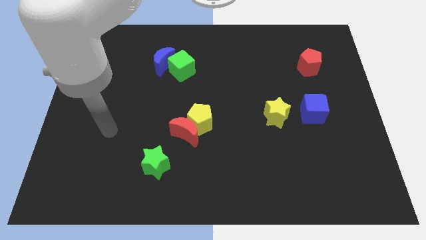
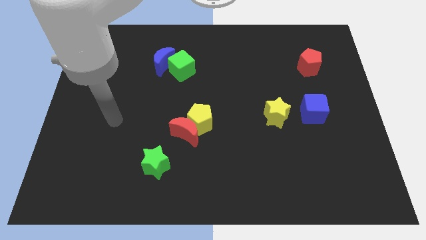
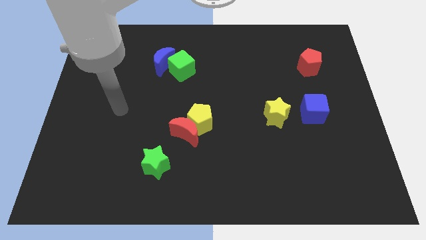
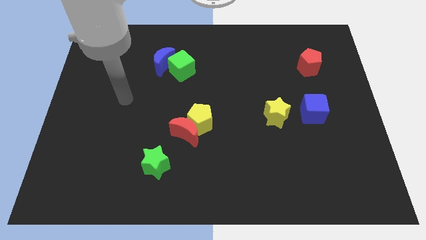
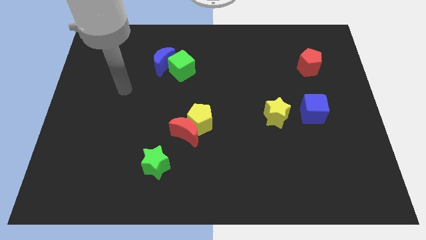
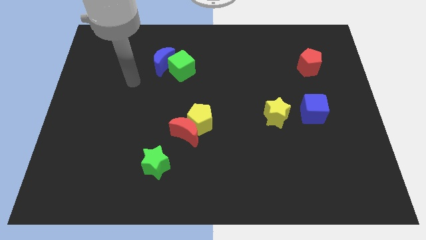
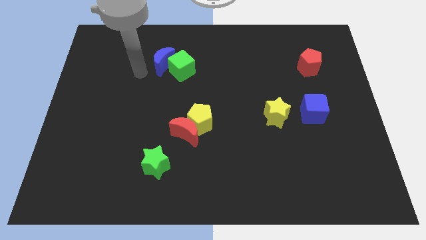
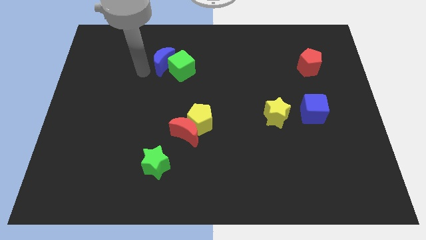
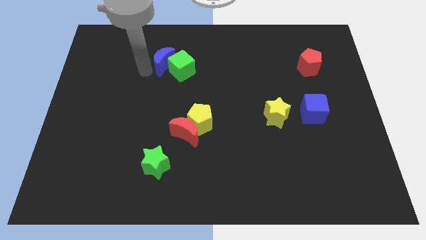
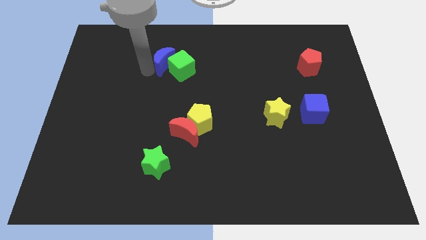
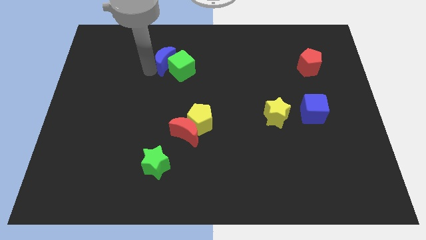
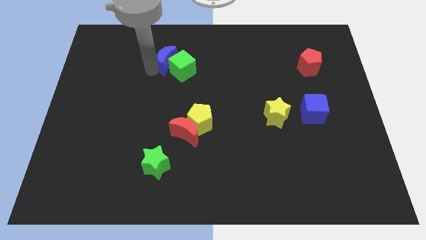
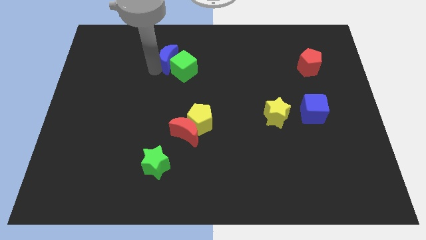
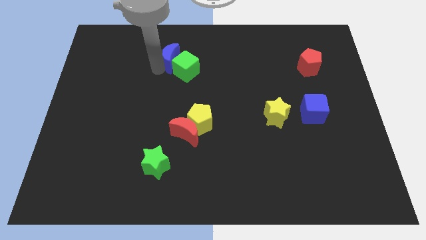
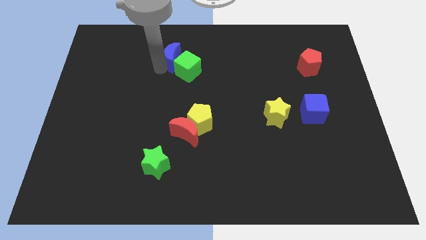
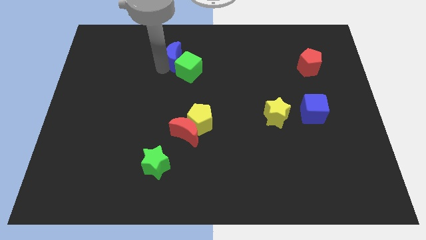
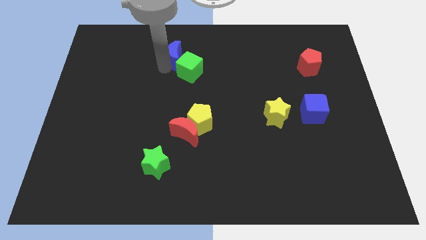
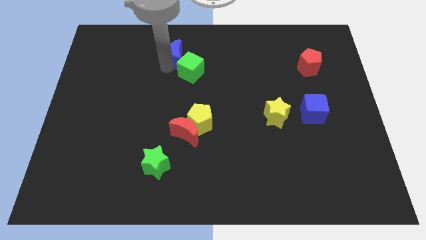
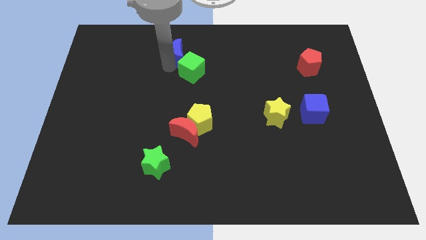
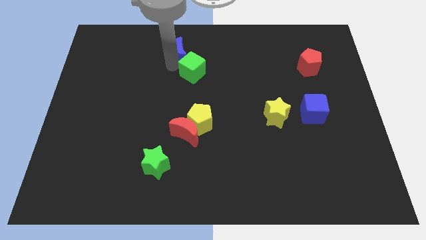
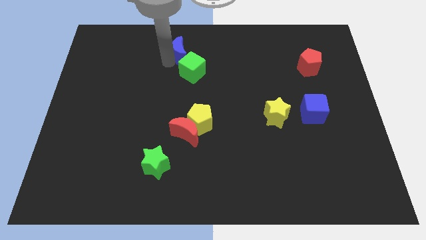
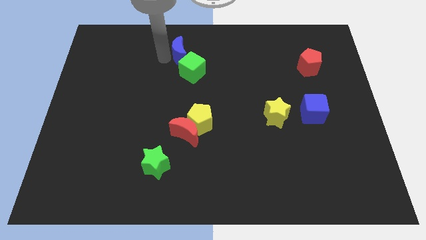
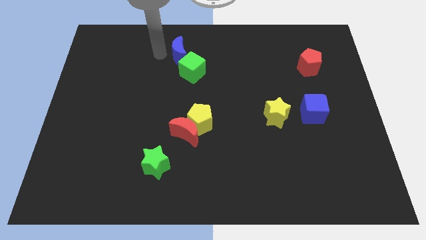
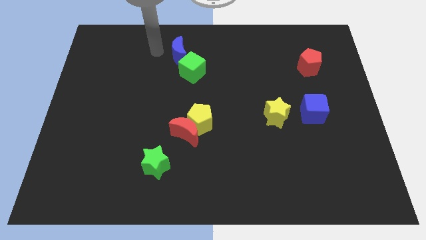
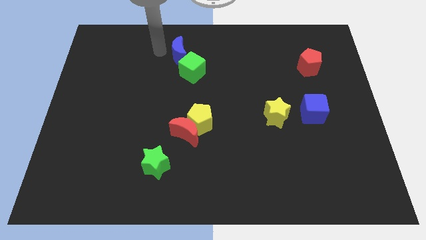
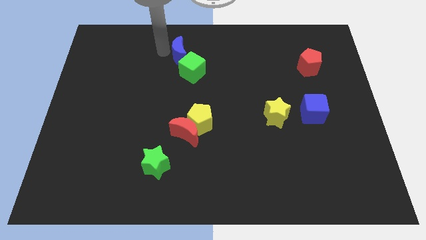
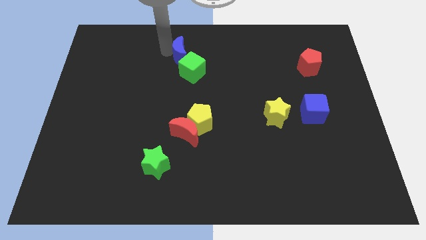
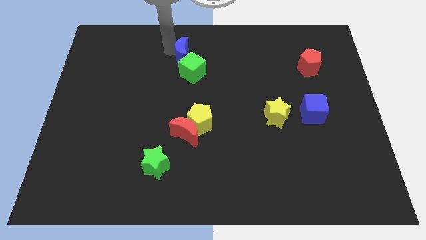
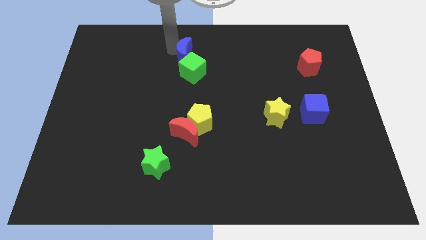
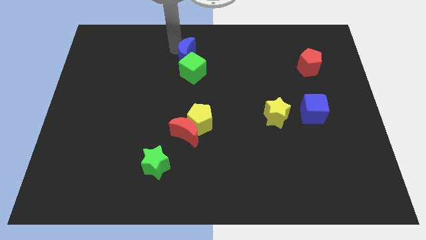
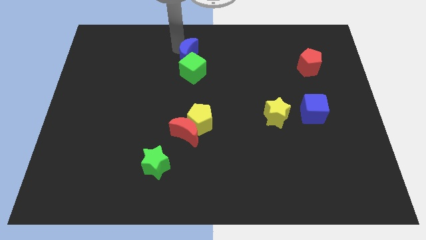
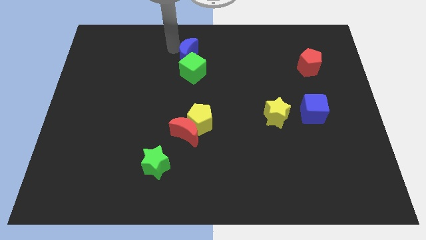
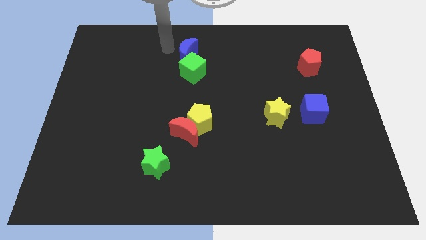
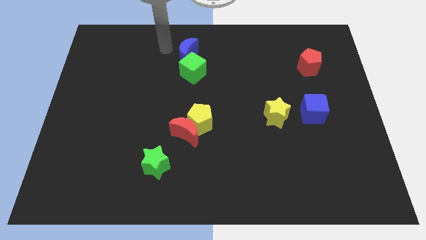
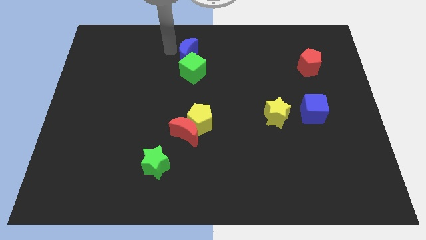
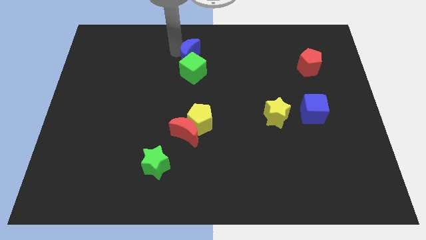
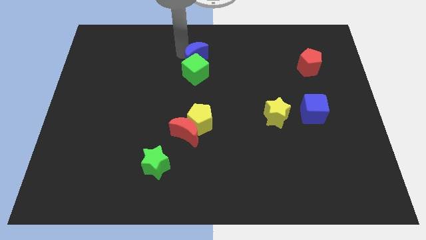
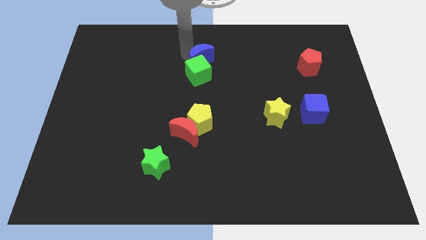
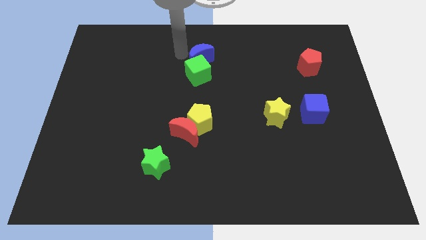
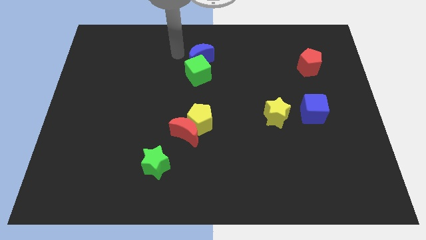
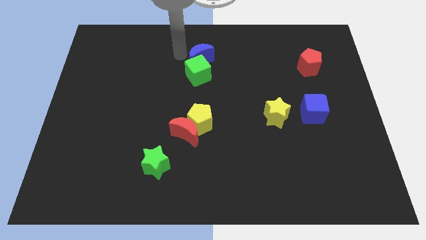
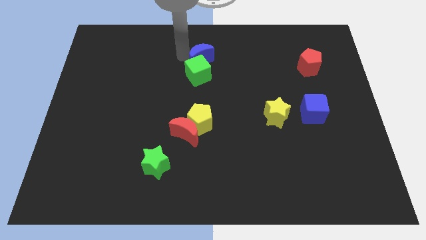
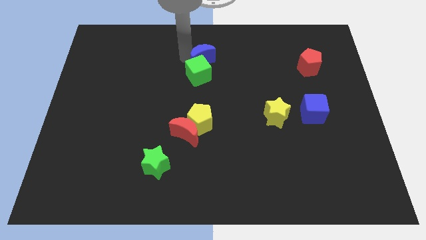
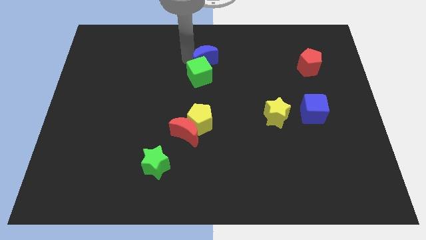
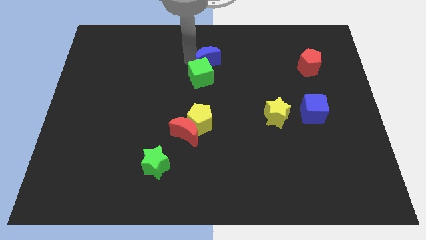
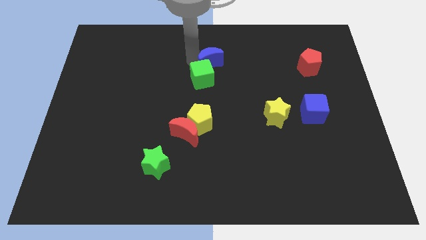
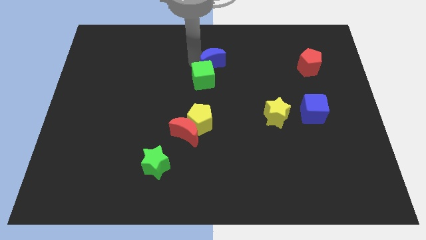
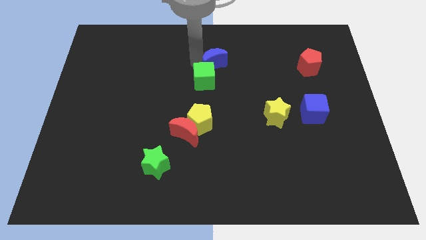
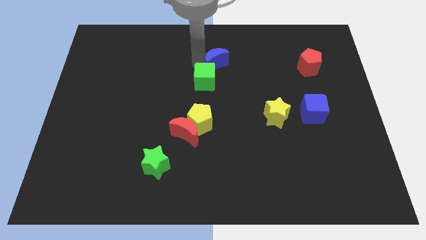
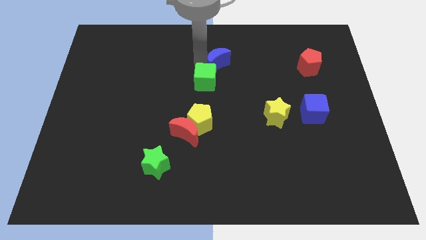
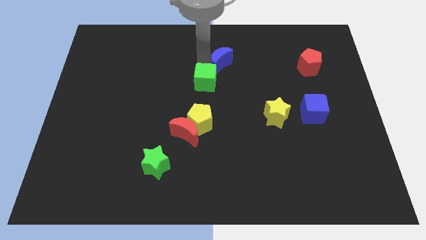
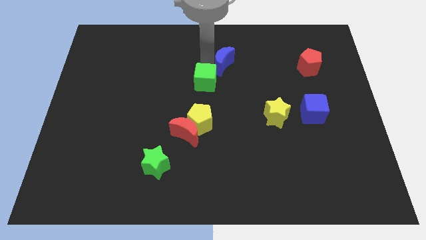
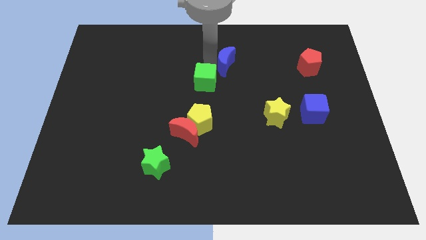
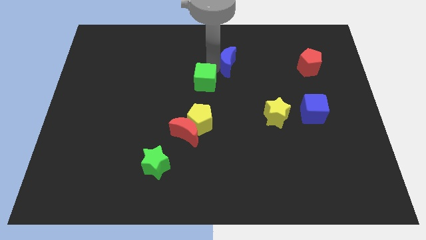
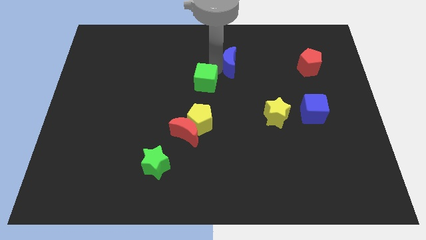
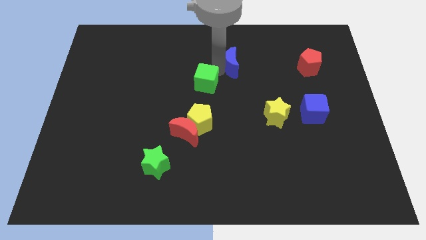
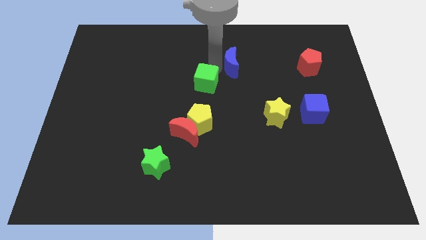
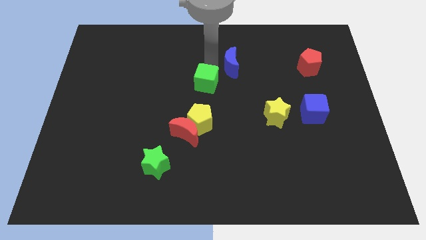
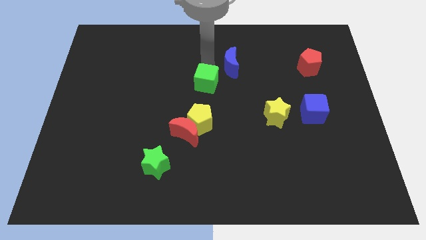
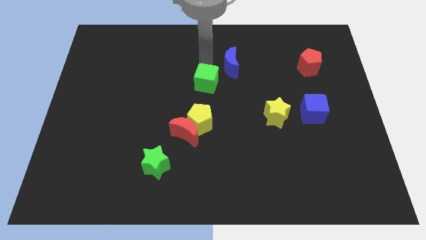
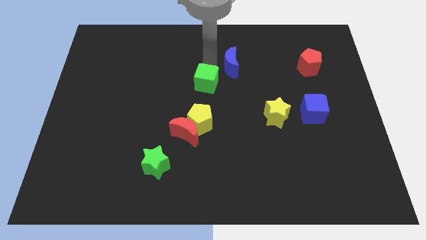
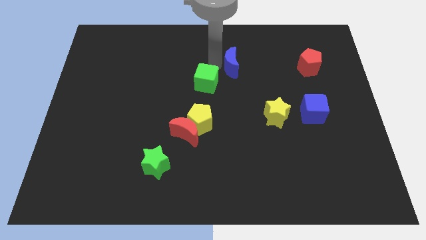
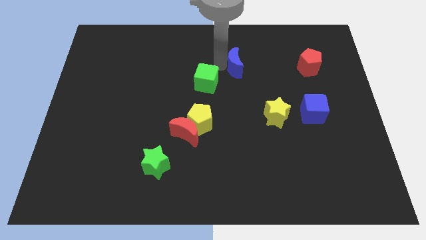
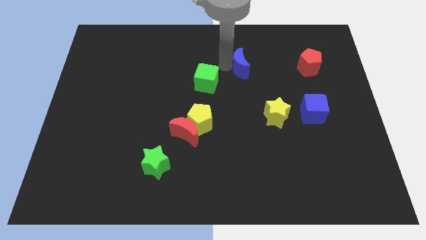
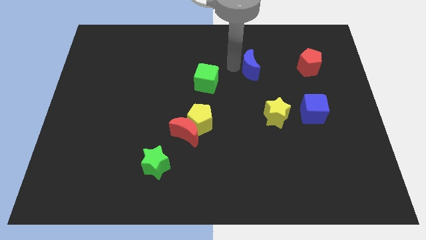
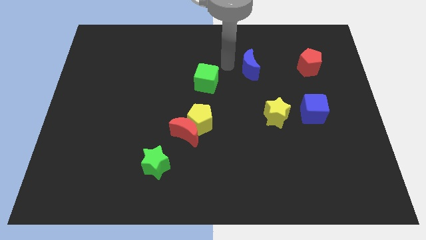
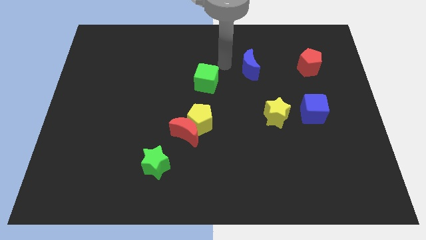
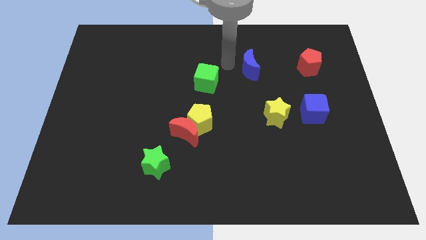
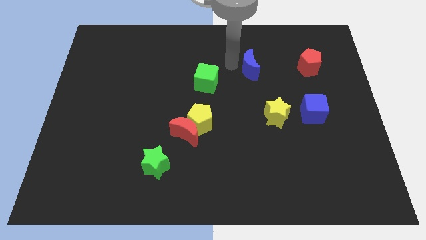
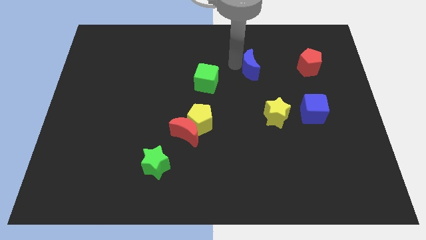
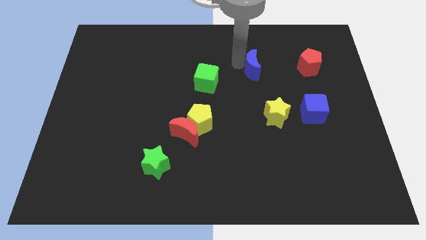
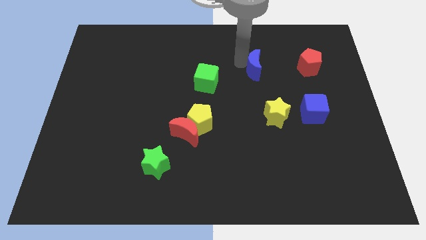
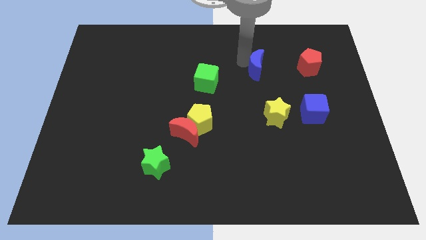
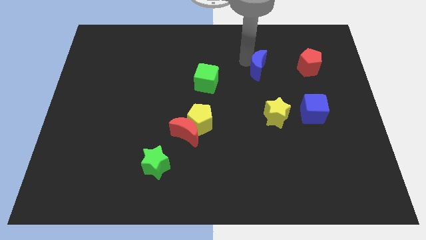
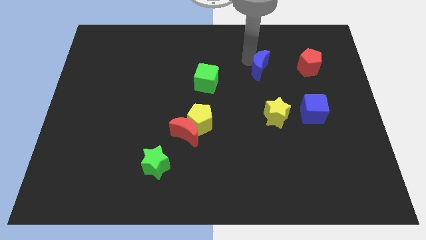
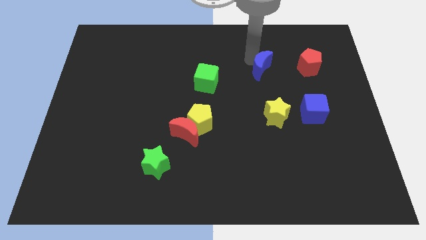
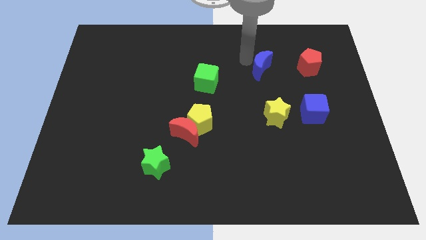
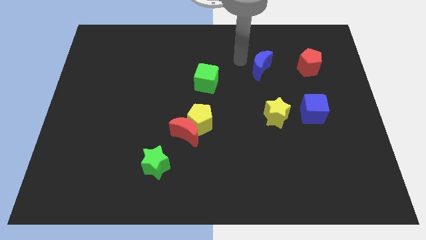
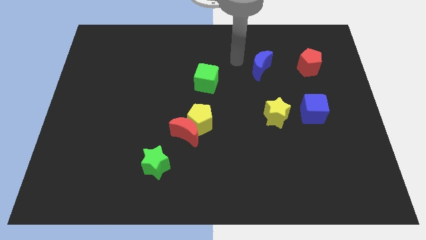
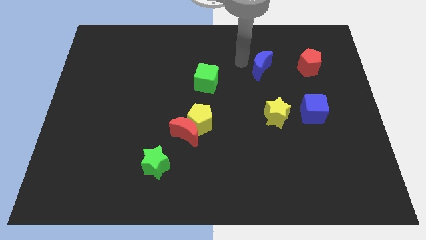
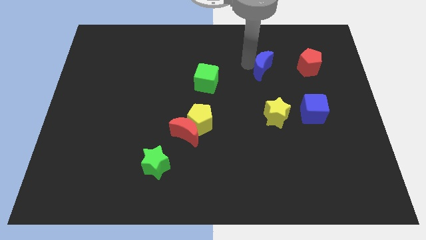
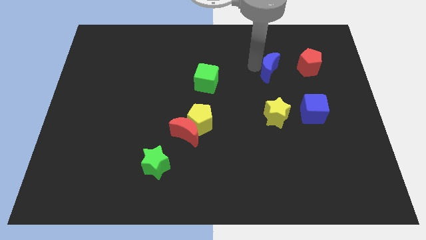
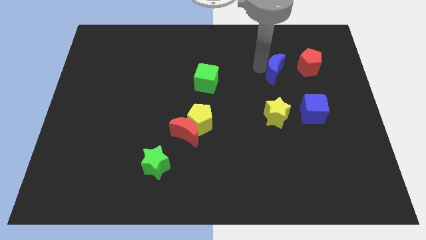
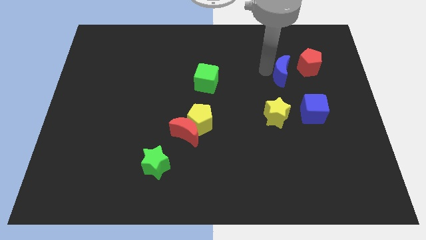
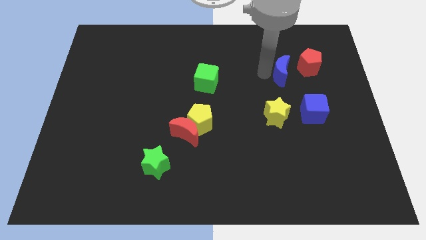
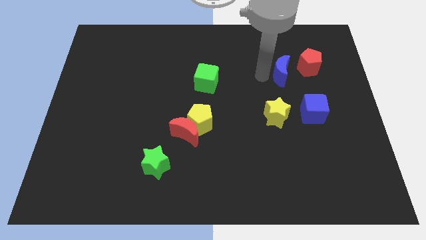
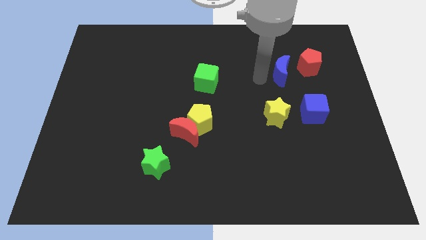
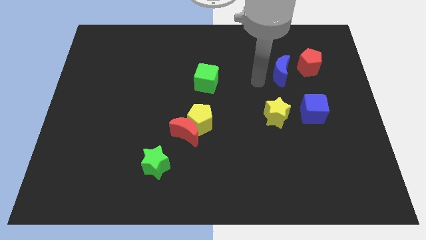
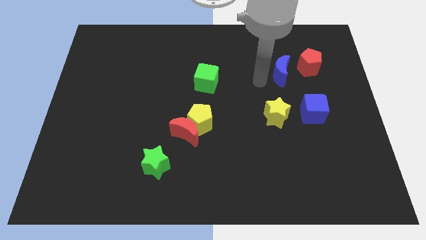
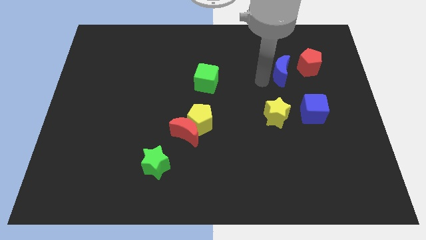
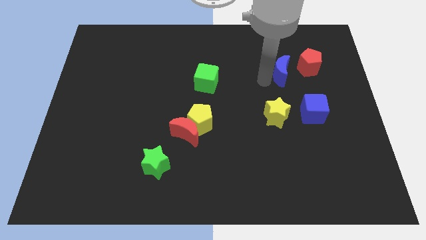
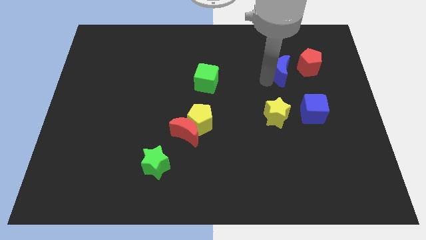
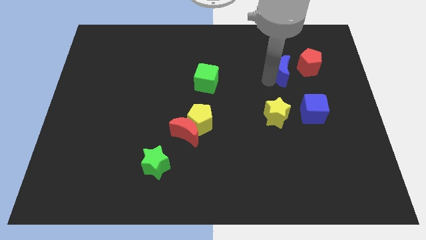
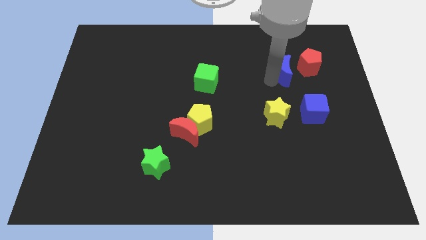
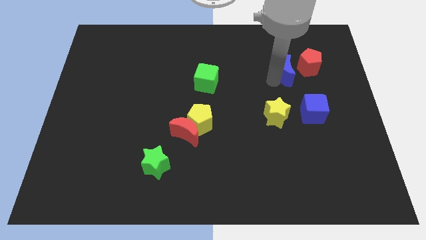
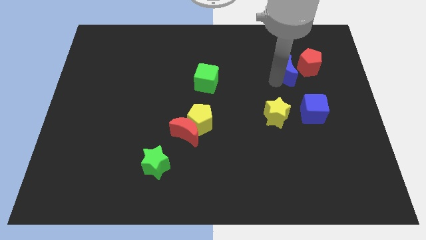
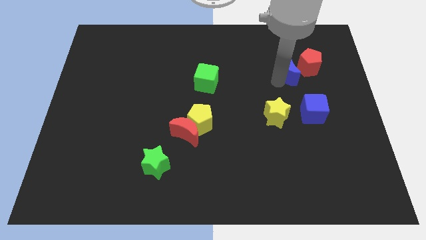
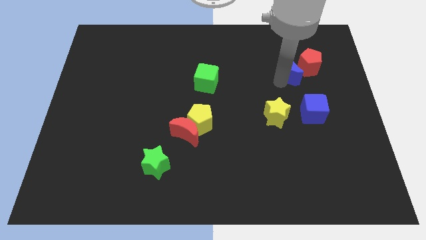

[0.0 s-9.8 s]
push the blue moon to the red pentagon
